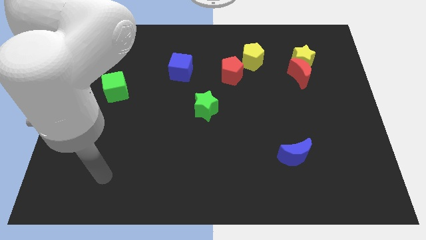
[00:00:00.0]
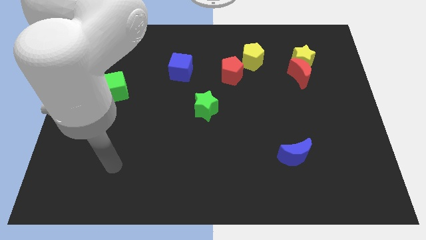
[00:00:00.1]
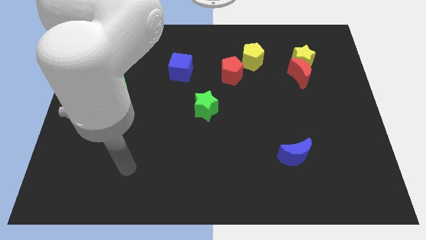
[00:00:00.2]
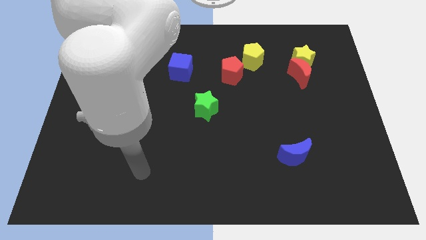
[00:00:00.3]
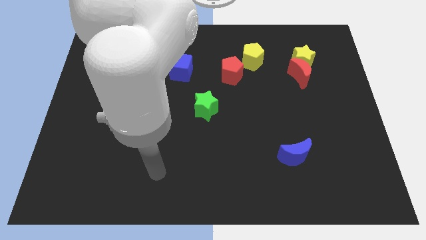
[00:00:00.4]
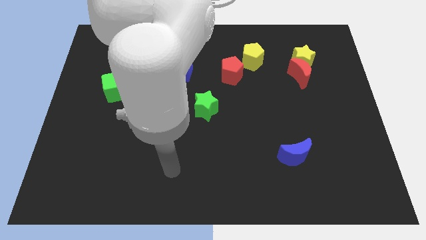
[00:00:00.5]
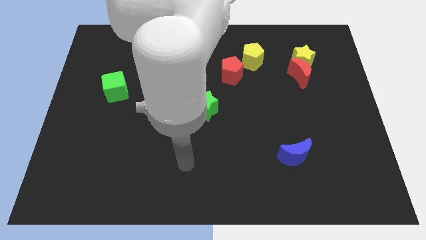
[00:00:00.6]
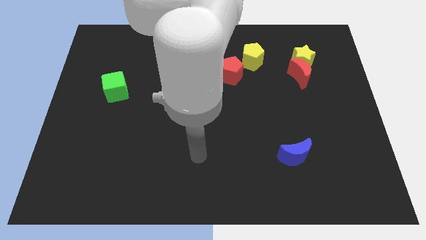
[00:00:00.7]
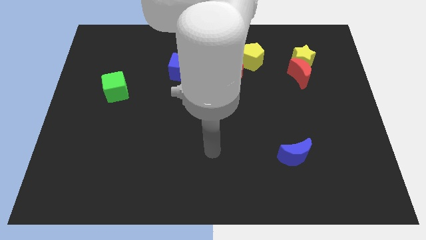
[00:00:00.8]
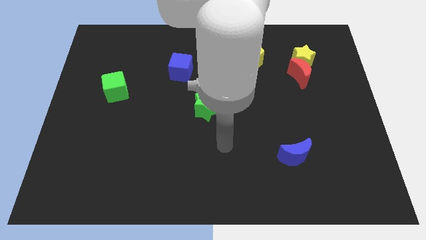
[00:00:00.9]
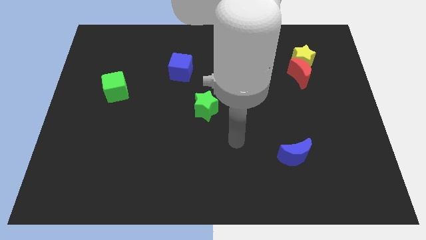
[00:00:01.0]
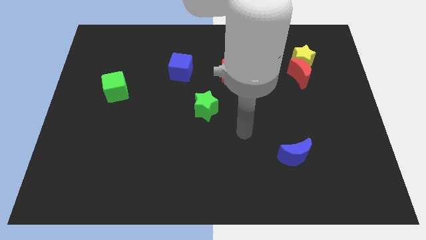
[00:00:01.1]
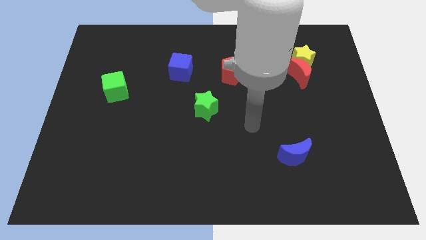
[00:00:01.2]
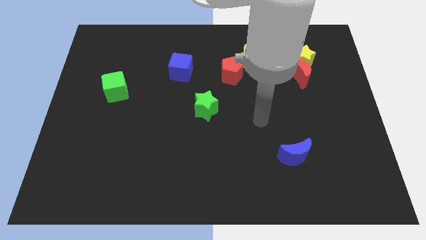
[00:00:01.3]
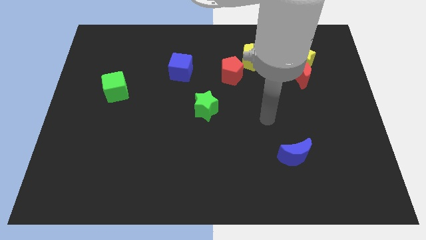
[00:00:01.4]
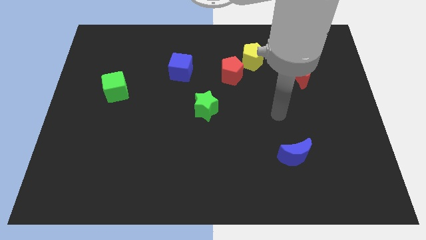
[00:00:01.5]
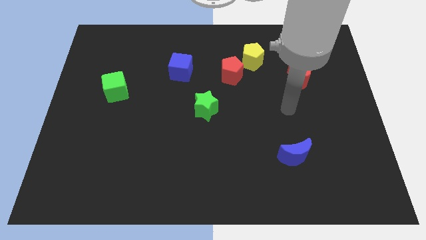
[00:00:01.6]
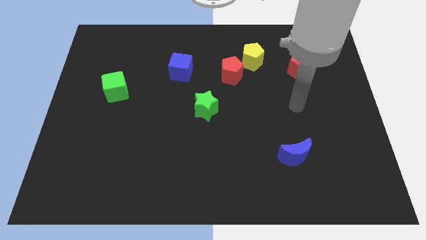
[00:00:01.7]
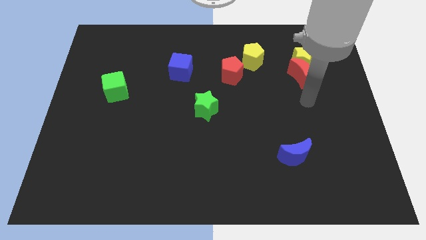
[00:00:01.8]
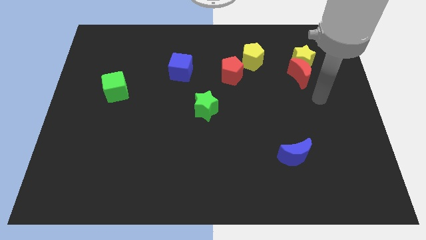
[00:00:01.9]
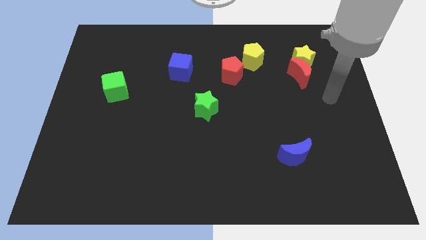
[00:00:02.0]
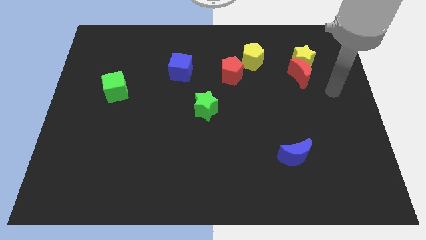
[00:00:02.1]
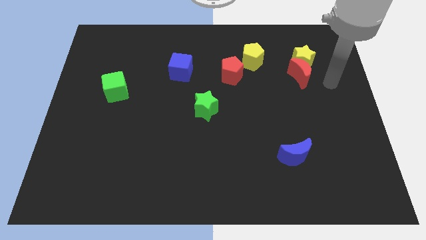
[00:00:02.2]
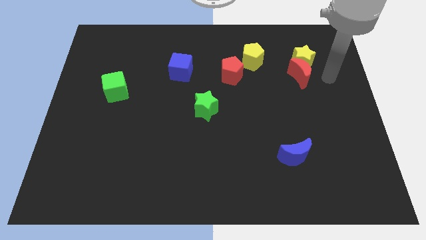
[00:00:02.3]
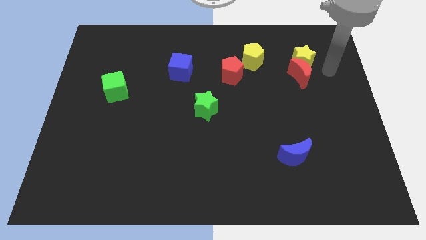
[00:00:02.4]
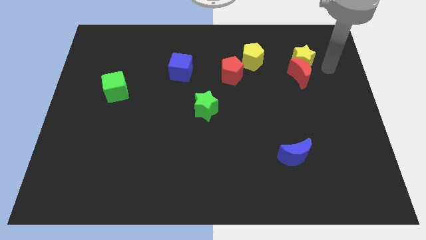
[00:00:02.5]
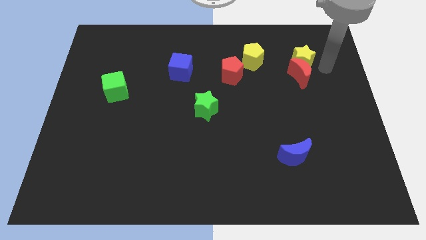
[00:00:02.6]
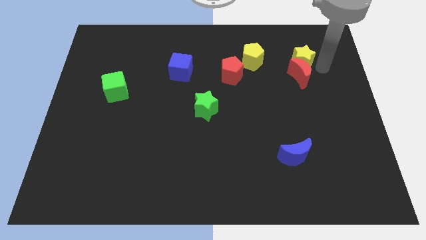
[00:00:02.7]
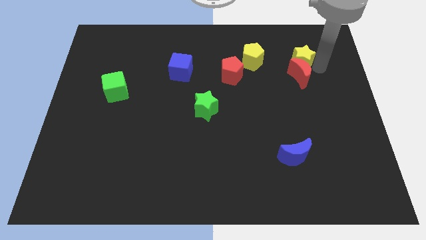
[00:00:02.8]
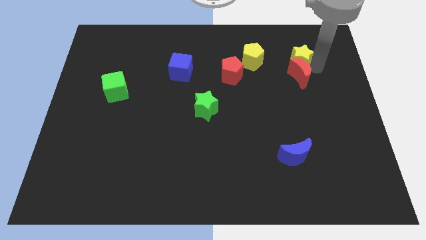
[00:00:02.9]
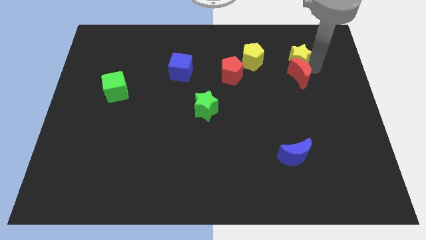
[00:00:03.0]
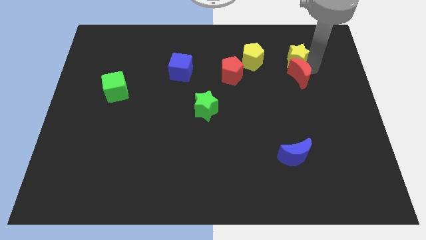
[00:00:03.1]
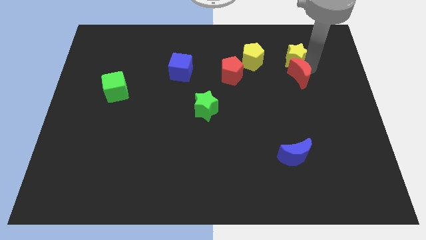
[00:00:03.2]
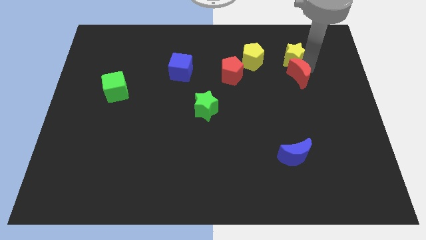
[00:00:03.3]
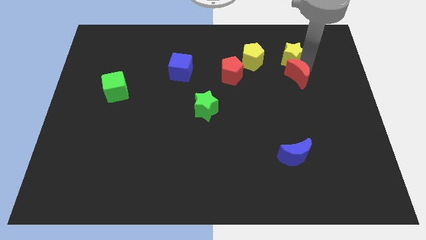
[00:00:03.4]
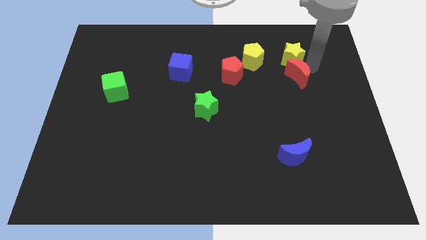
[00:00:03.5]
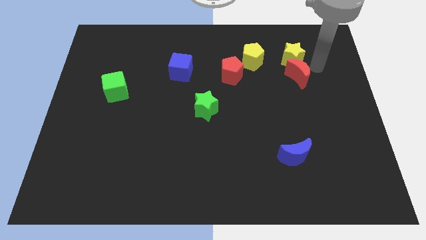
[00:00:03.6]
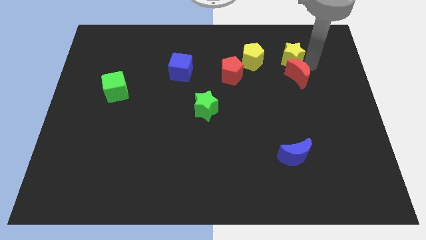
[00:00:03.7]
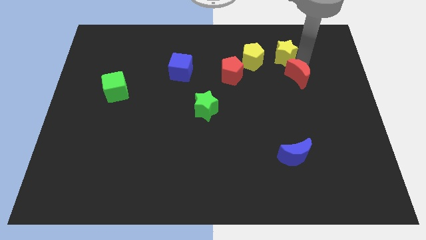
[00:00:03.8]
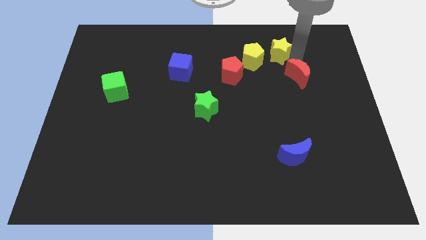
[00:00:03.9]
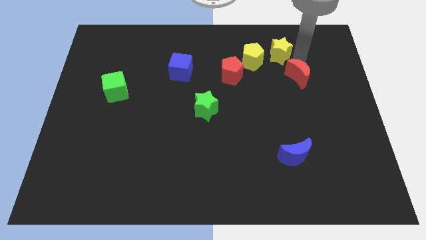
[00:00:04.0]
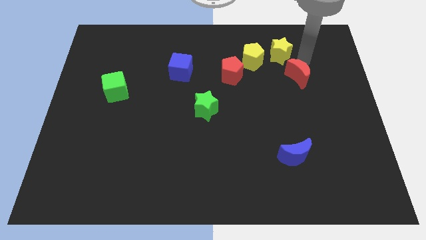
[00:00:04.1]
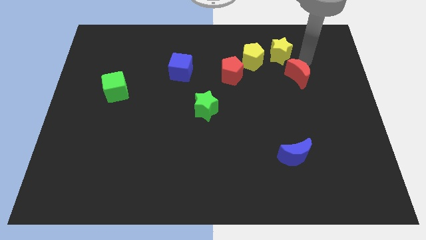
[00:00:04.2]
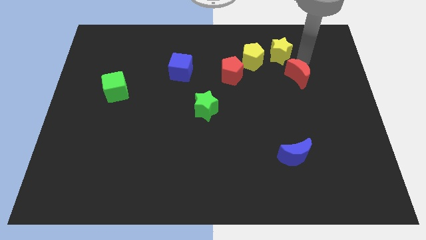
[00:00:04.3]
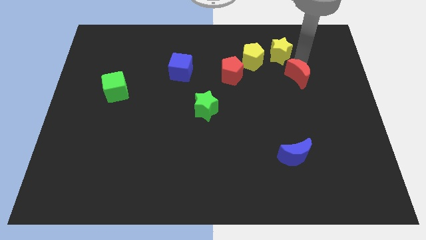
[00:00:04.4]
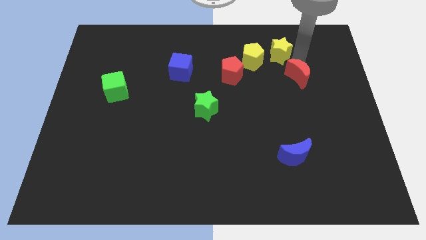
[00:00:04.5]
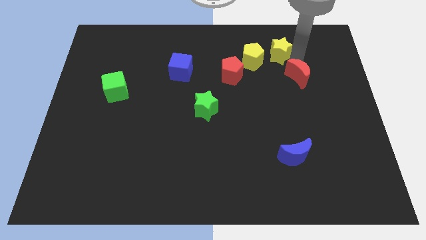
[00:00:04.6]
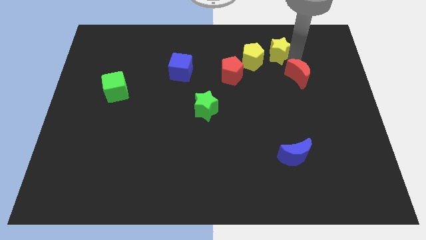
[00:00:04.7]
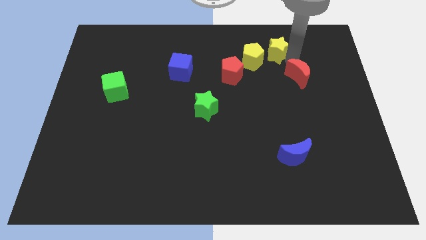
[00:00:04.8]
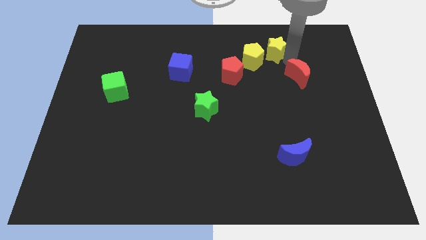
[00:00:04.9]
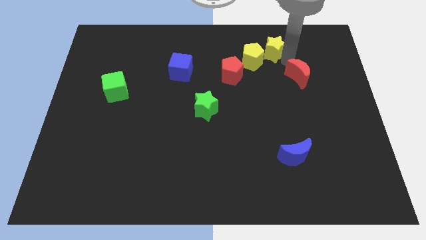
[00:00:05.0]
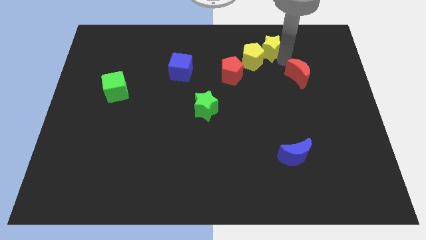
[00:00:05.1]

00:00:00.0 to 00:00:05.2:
move the yellow star somewhat to the left

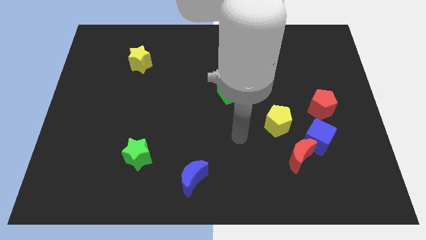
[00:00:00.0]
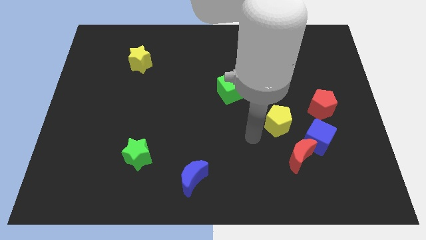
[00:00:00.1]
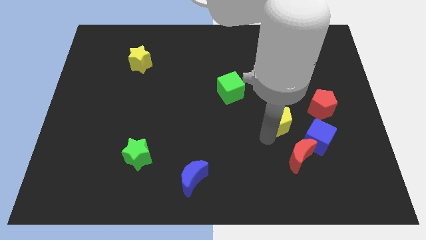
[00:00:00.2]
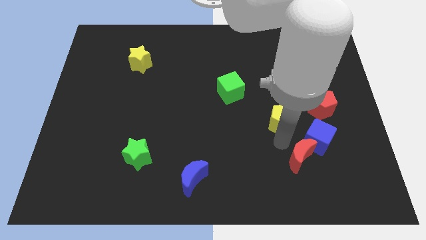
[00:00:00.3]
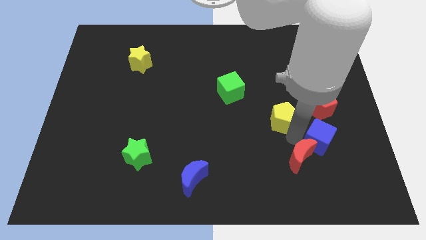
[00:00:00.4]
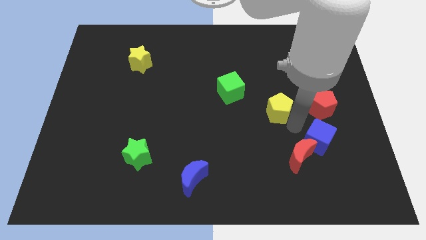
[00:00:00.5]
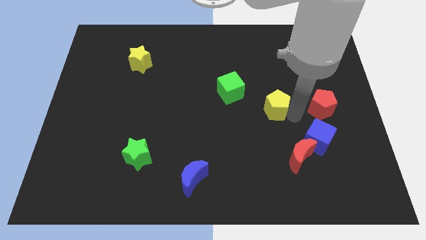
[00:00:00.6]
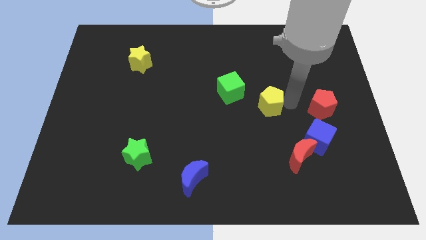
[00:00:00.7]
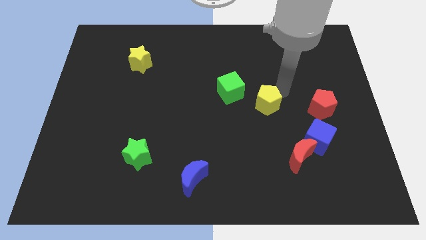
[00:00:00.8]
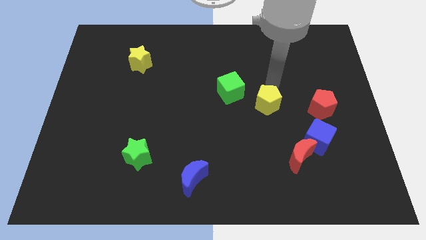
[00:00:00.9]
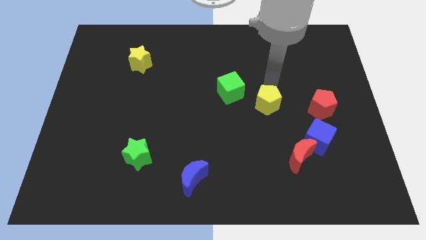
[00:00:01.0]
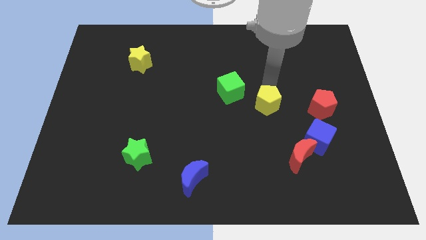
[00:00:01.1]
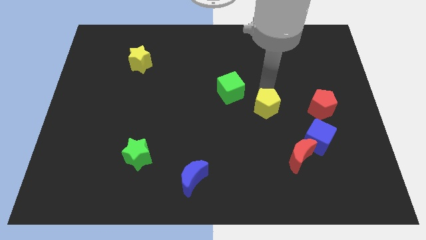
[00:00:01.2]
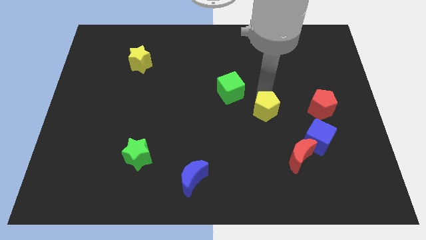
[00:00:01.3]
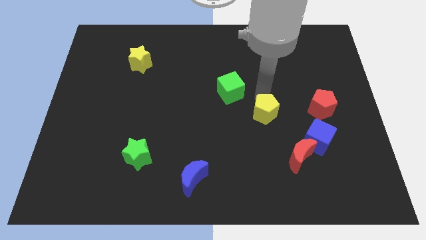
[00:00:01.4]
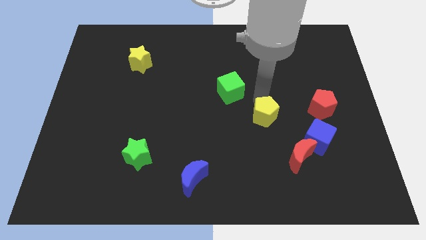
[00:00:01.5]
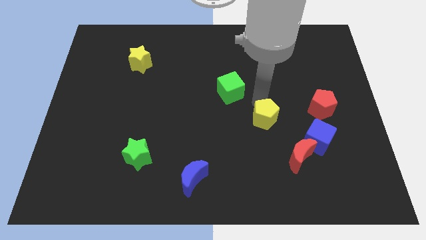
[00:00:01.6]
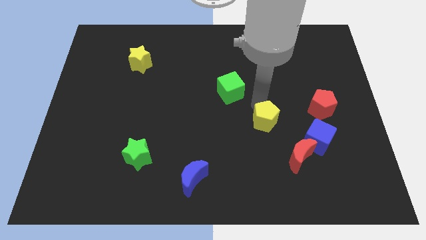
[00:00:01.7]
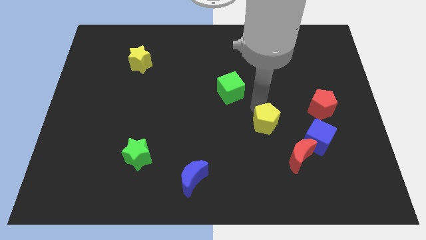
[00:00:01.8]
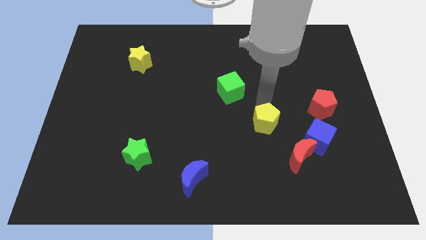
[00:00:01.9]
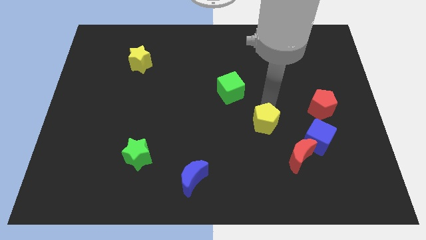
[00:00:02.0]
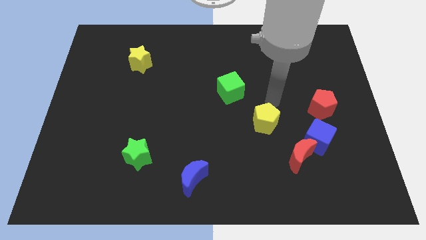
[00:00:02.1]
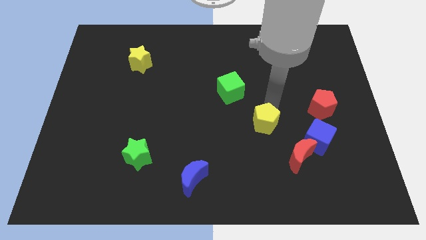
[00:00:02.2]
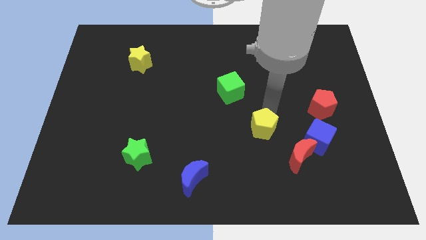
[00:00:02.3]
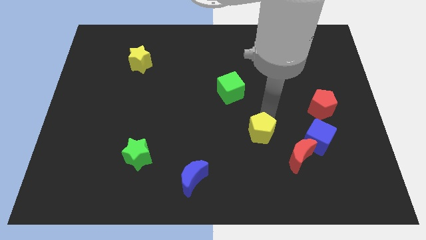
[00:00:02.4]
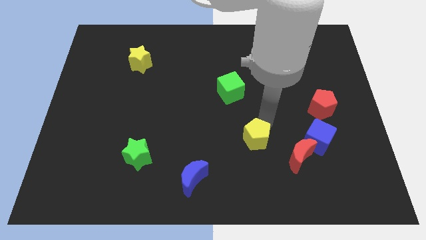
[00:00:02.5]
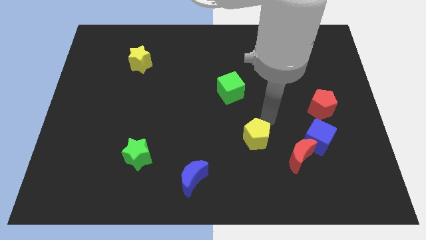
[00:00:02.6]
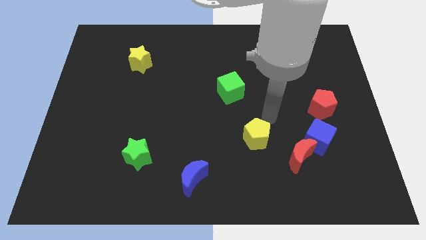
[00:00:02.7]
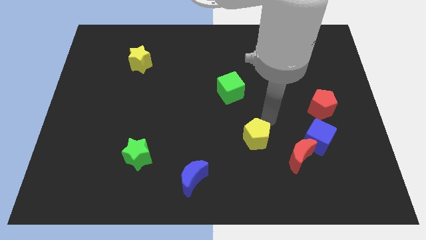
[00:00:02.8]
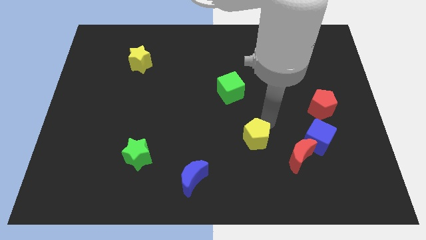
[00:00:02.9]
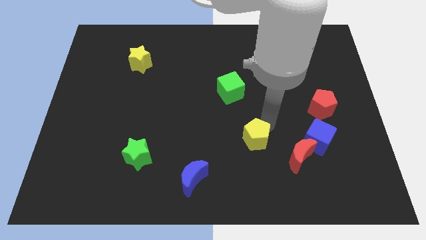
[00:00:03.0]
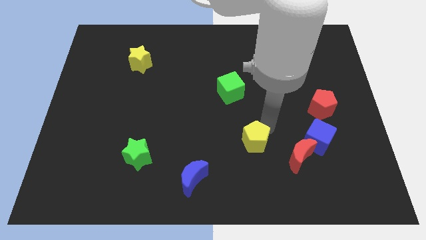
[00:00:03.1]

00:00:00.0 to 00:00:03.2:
slide the yellow pentagon diagonally down and to the left slightly
